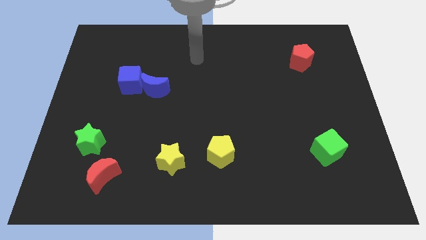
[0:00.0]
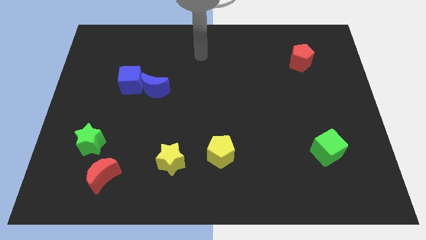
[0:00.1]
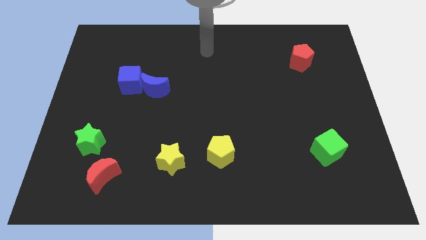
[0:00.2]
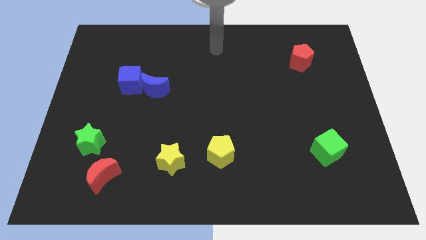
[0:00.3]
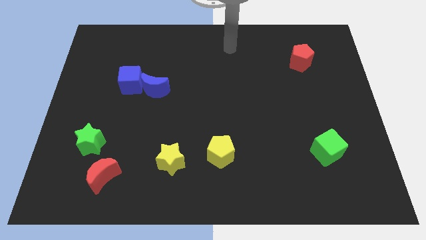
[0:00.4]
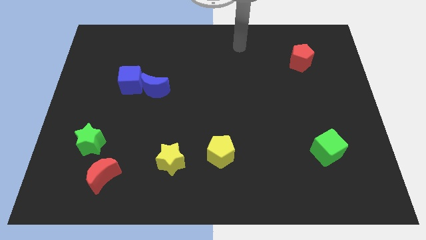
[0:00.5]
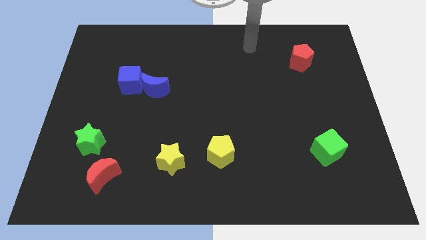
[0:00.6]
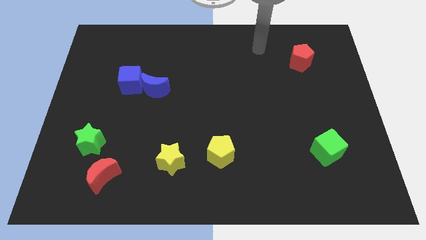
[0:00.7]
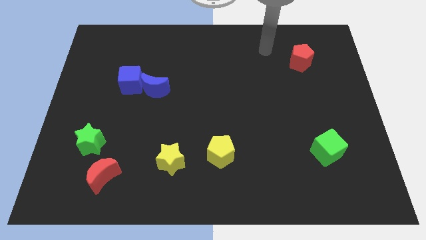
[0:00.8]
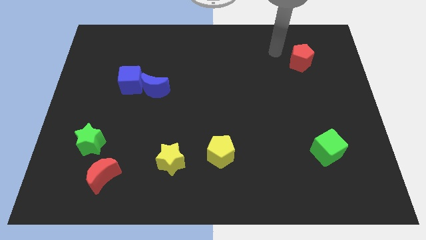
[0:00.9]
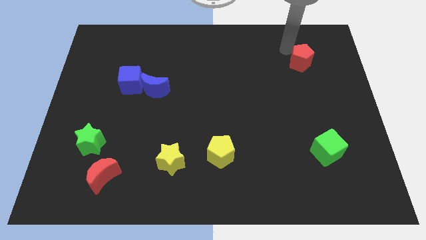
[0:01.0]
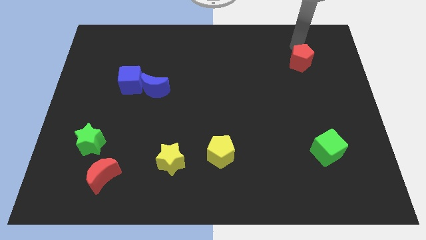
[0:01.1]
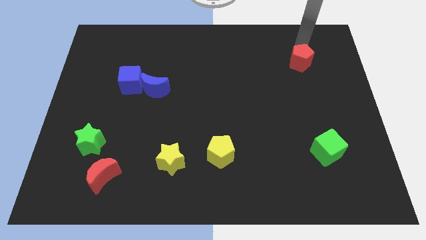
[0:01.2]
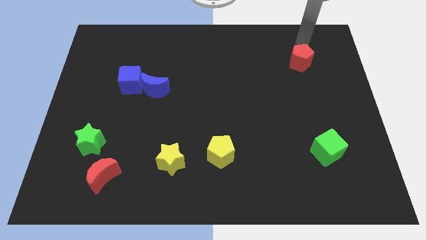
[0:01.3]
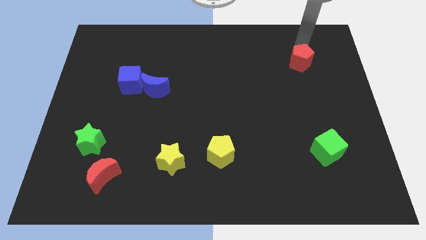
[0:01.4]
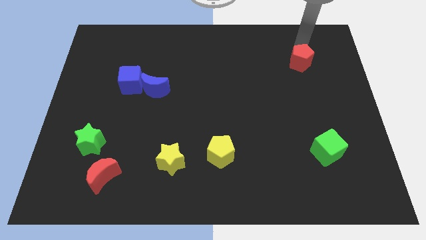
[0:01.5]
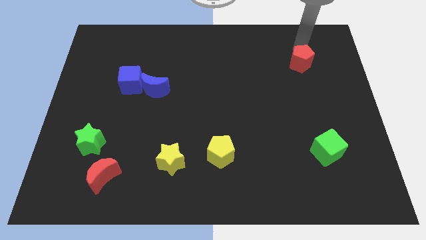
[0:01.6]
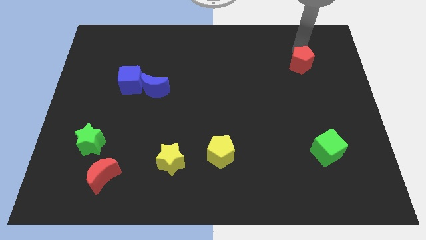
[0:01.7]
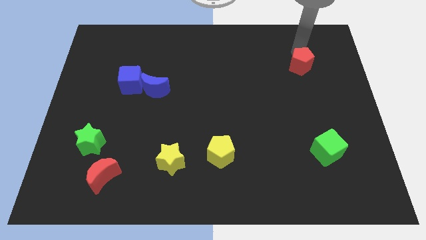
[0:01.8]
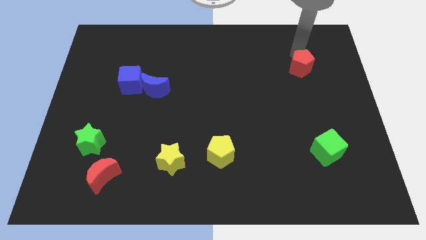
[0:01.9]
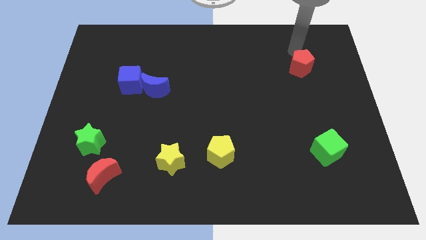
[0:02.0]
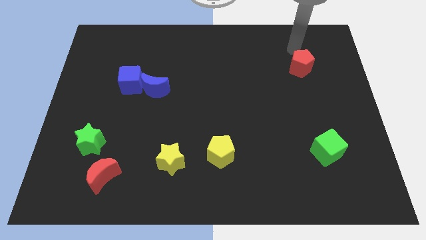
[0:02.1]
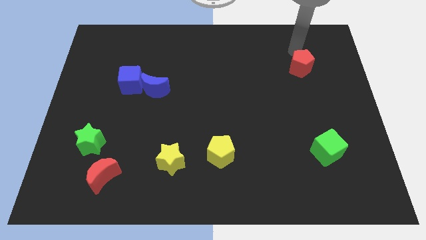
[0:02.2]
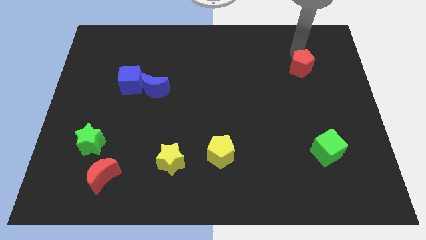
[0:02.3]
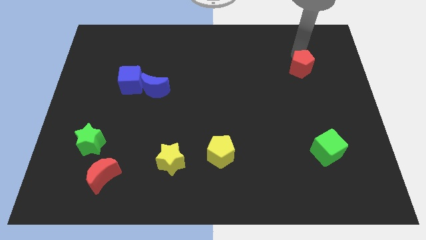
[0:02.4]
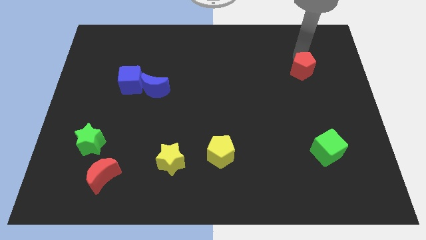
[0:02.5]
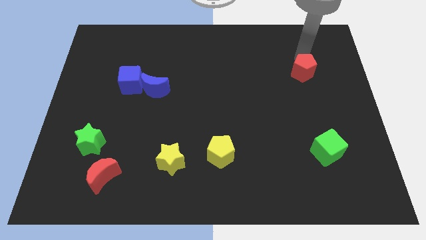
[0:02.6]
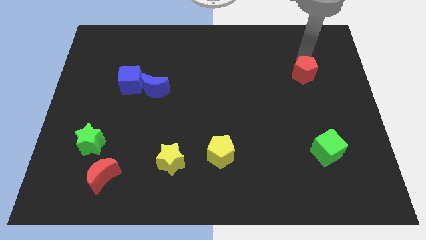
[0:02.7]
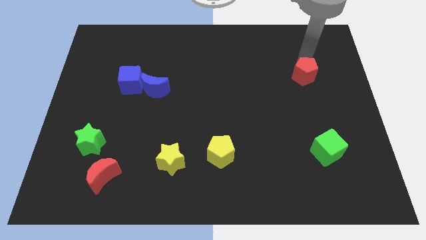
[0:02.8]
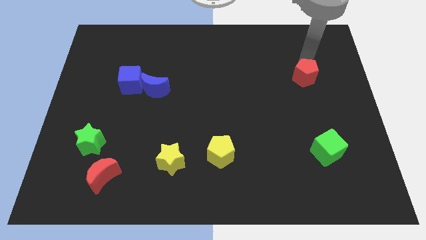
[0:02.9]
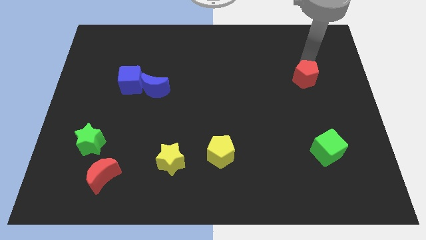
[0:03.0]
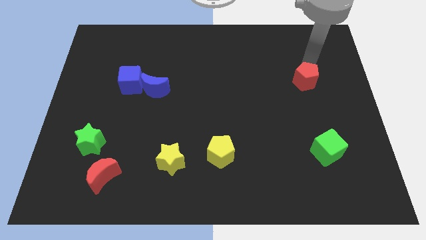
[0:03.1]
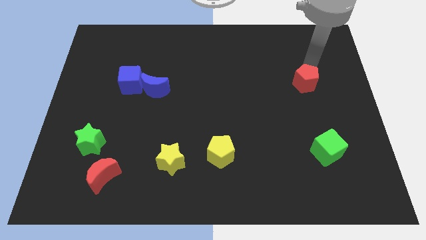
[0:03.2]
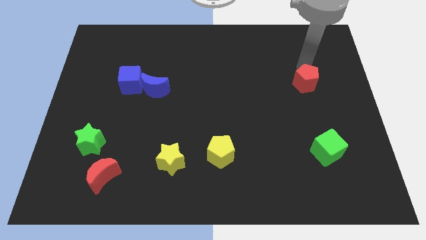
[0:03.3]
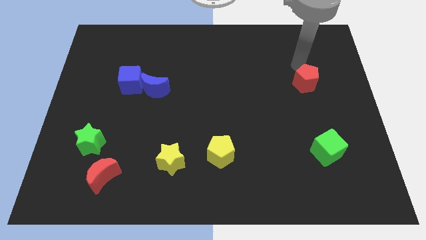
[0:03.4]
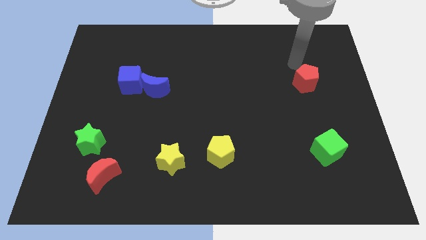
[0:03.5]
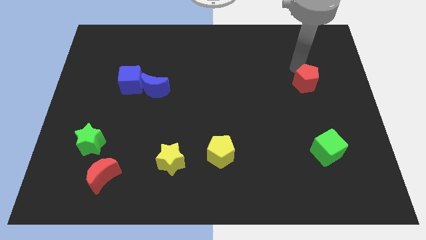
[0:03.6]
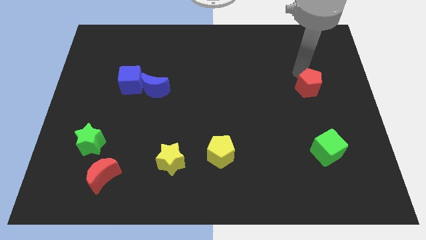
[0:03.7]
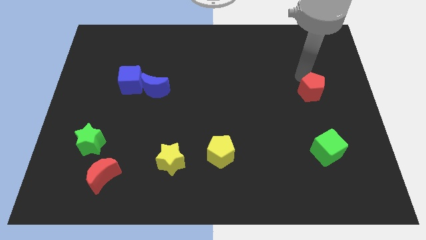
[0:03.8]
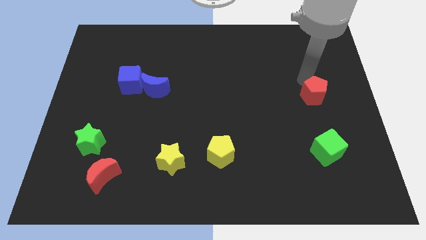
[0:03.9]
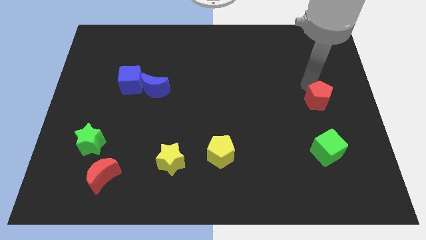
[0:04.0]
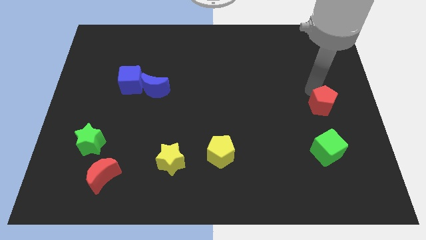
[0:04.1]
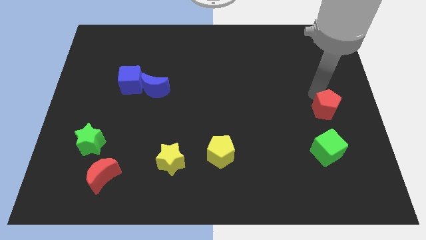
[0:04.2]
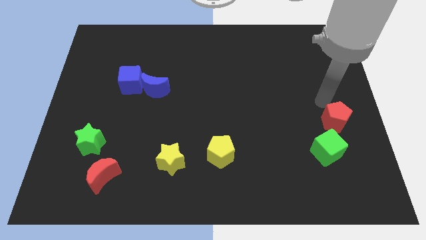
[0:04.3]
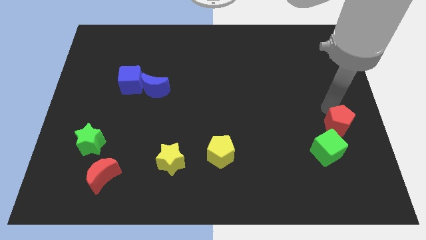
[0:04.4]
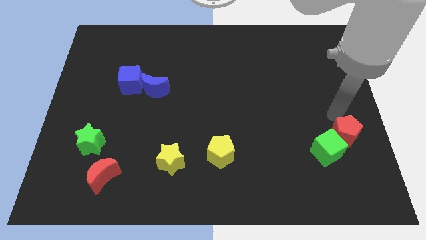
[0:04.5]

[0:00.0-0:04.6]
push the red pentagon next to the green cube

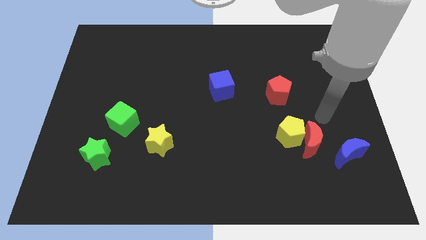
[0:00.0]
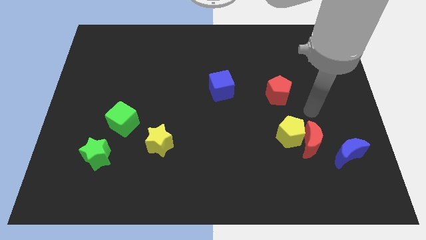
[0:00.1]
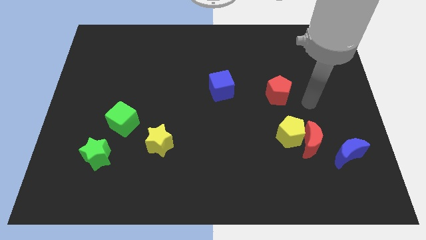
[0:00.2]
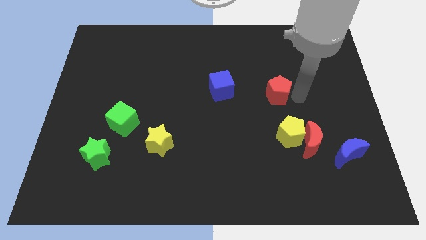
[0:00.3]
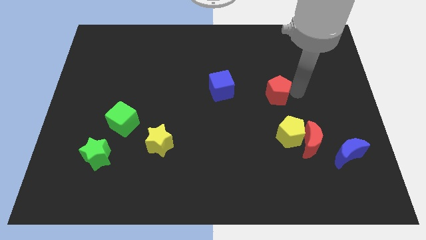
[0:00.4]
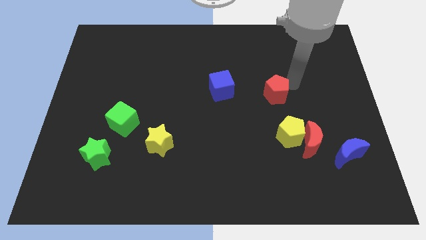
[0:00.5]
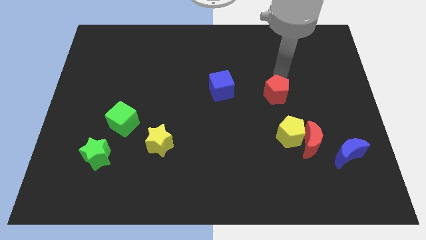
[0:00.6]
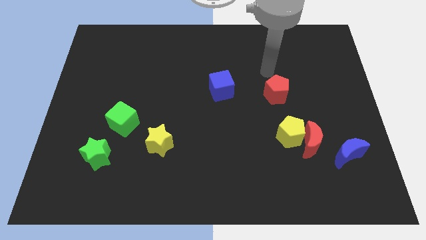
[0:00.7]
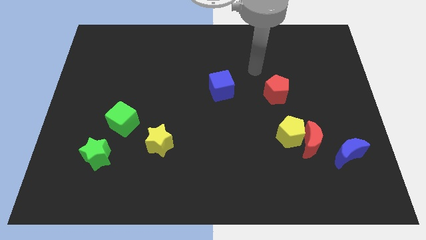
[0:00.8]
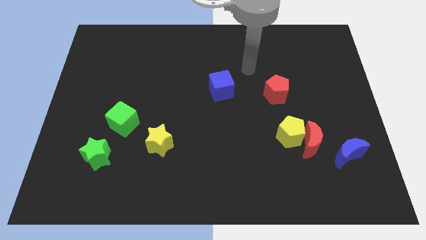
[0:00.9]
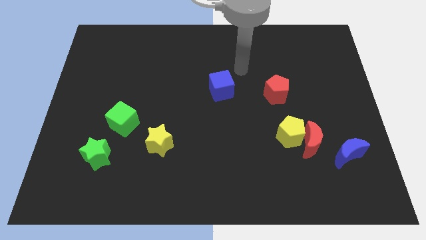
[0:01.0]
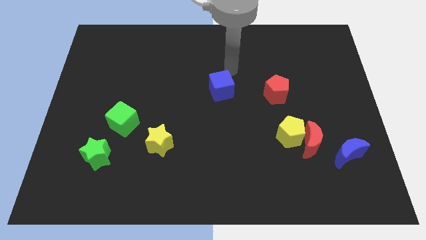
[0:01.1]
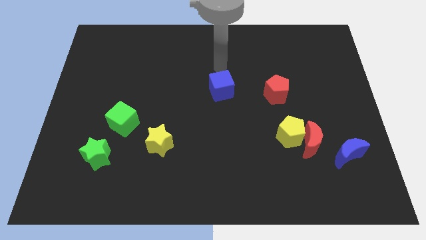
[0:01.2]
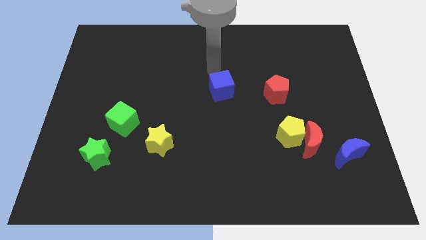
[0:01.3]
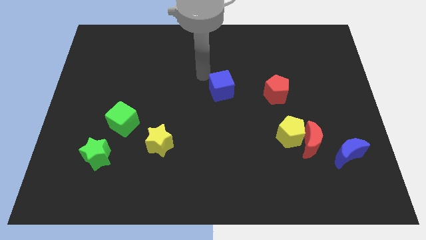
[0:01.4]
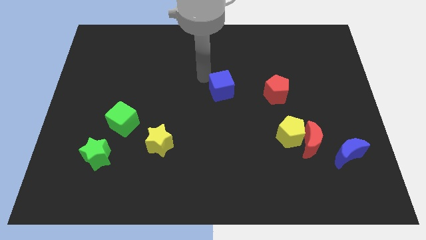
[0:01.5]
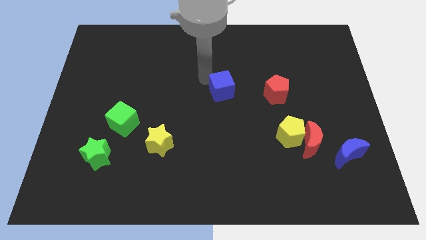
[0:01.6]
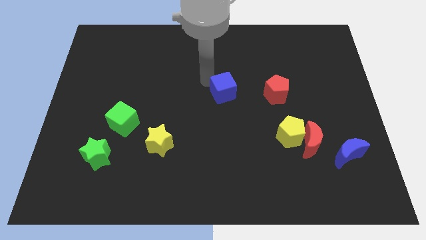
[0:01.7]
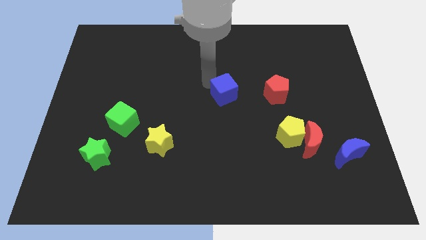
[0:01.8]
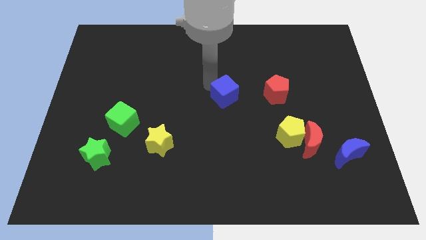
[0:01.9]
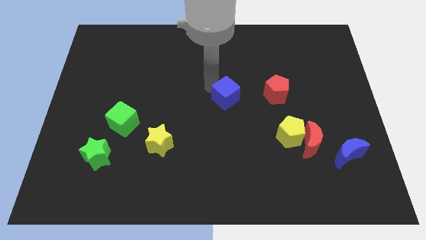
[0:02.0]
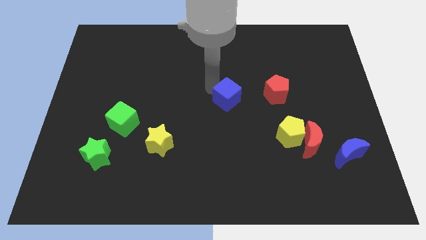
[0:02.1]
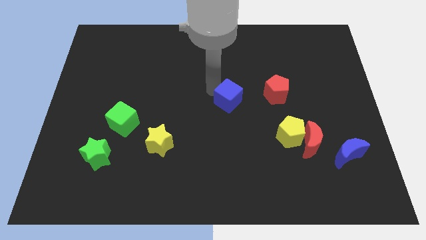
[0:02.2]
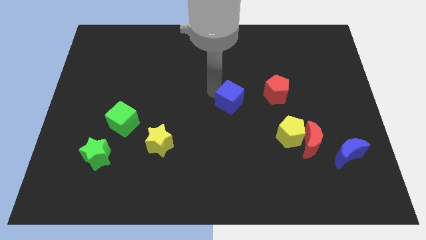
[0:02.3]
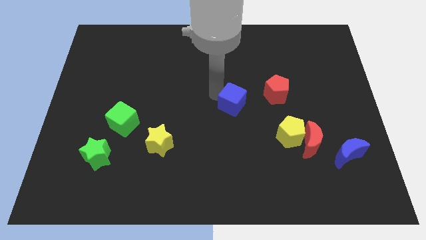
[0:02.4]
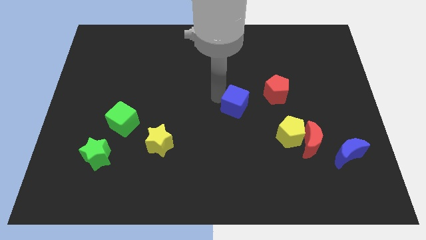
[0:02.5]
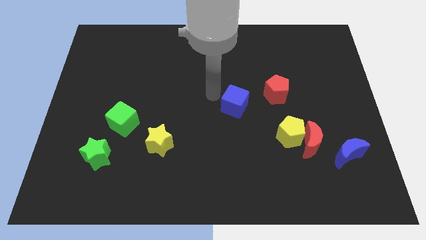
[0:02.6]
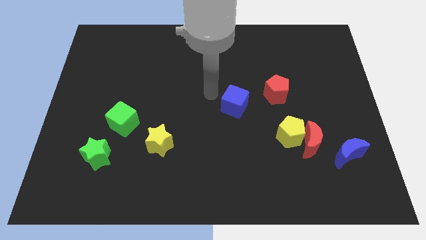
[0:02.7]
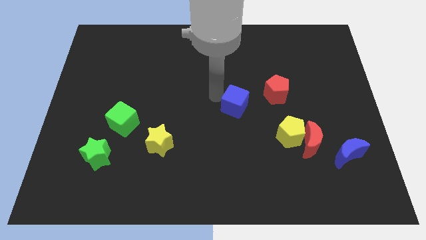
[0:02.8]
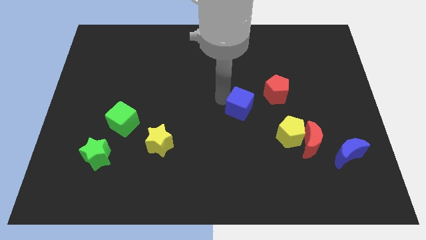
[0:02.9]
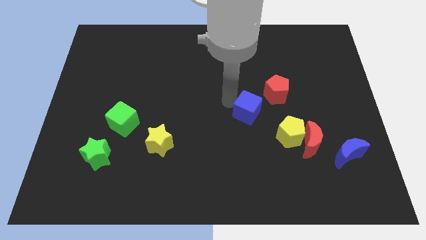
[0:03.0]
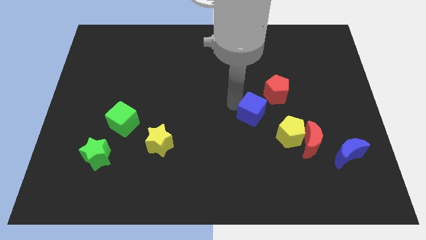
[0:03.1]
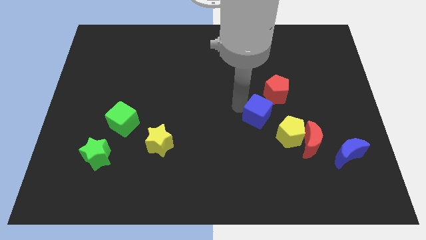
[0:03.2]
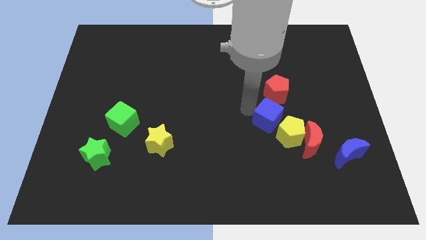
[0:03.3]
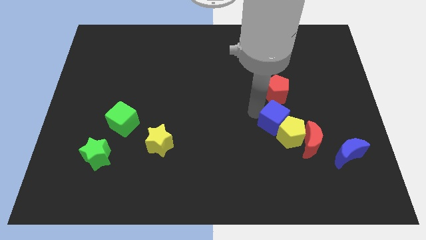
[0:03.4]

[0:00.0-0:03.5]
put the blue cube towards the yellow pentagon
